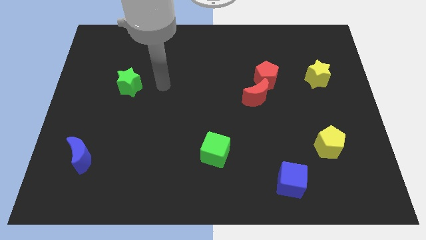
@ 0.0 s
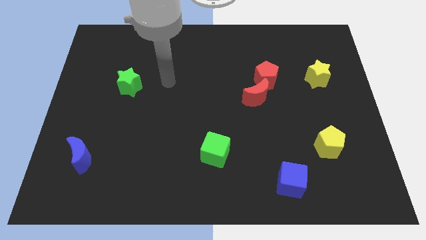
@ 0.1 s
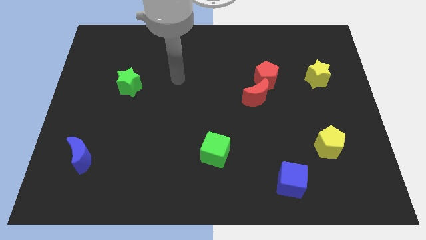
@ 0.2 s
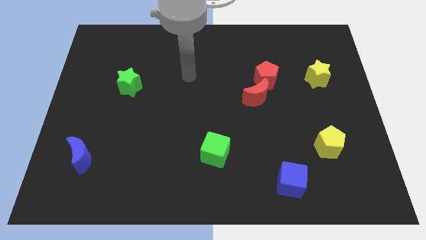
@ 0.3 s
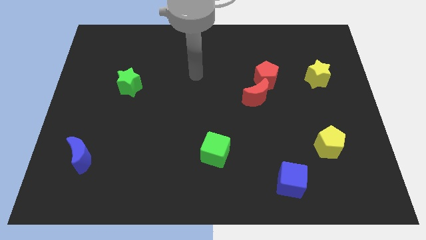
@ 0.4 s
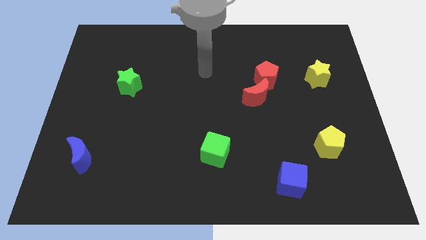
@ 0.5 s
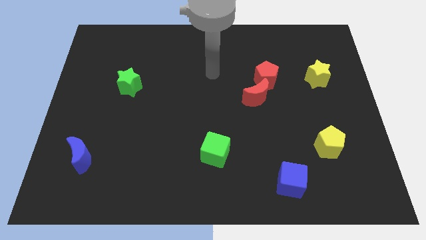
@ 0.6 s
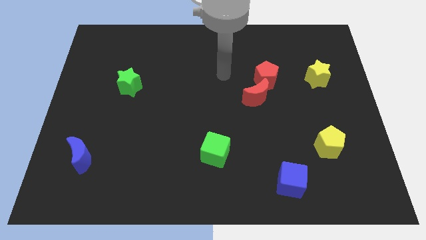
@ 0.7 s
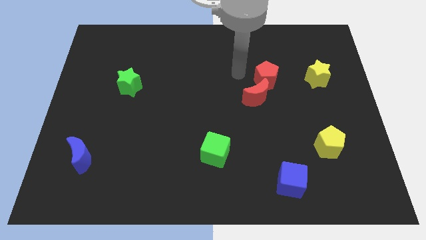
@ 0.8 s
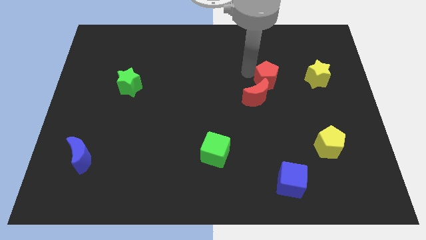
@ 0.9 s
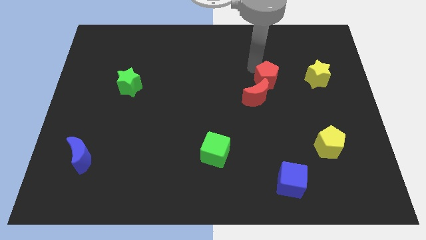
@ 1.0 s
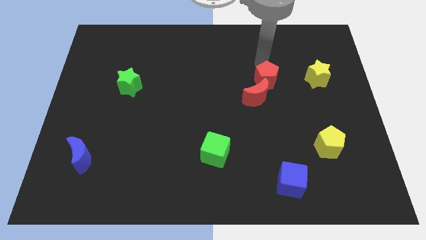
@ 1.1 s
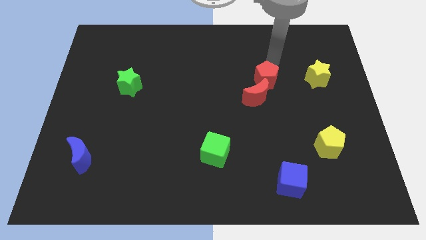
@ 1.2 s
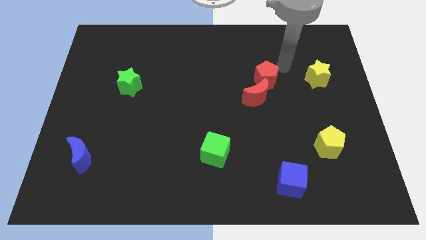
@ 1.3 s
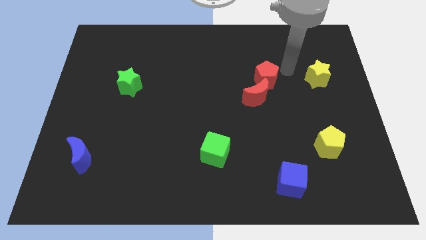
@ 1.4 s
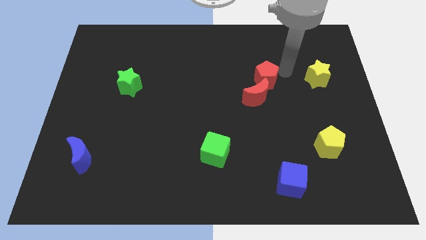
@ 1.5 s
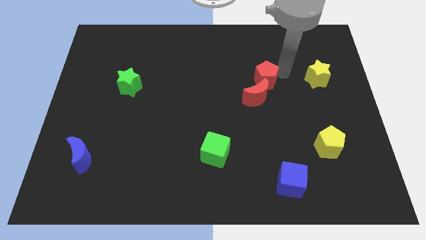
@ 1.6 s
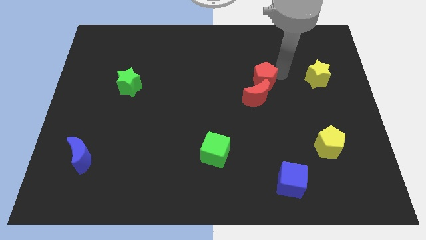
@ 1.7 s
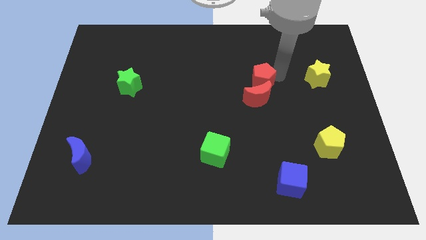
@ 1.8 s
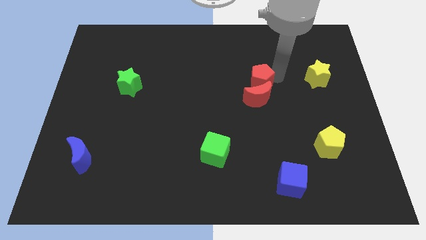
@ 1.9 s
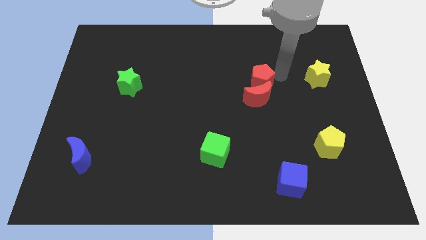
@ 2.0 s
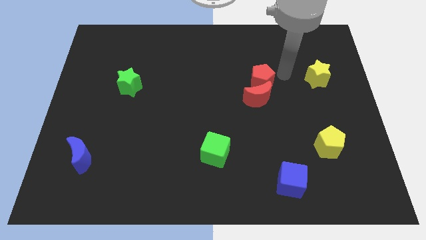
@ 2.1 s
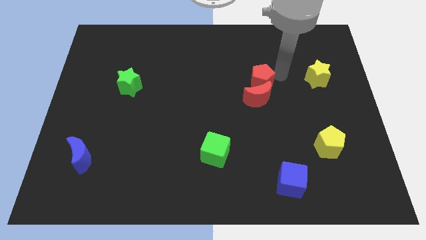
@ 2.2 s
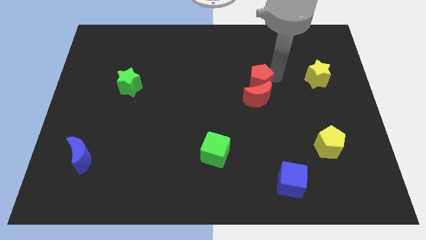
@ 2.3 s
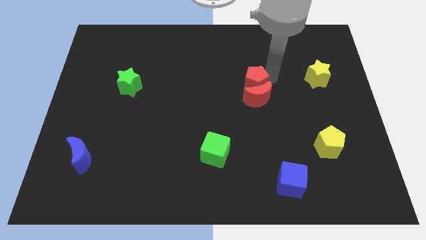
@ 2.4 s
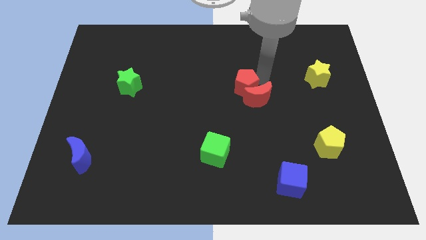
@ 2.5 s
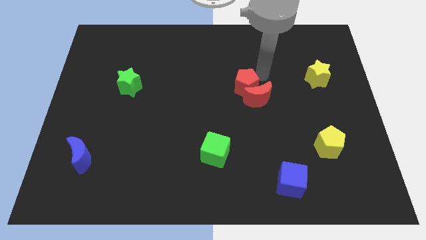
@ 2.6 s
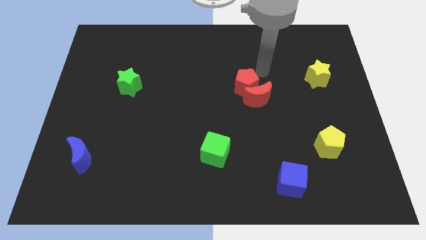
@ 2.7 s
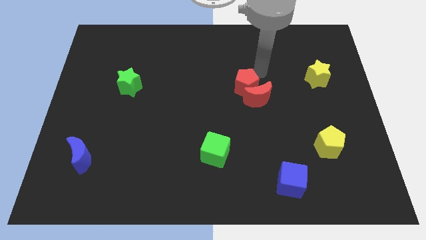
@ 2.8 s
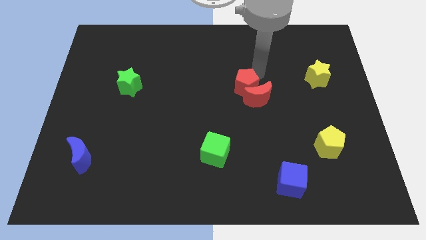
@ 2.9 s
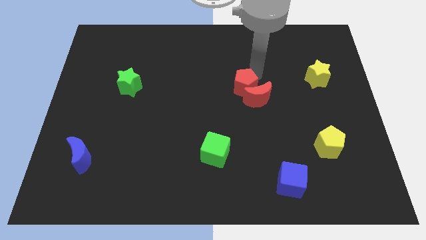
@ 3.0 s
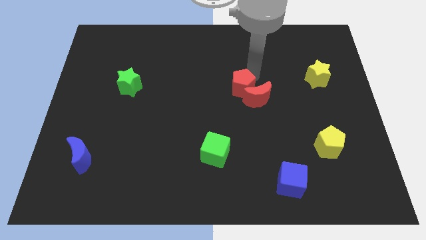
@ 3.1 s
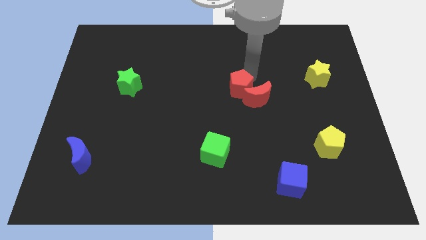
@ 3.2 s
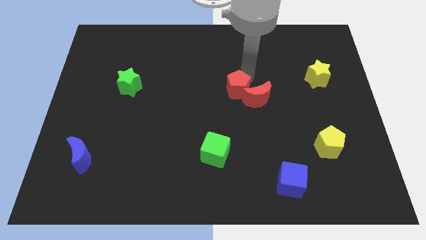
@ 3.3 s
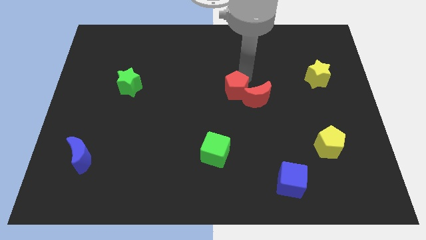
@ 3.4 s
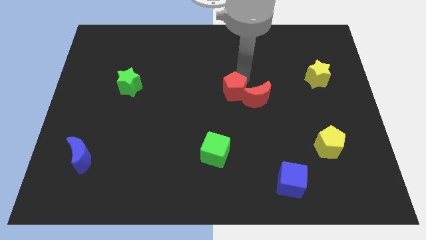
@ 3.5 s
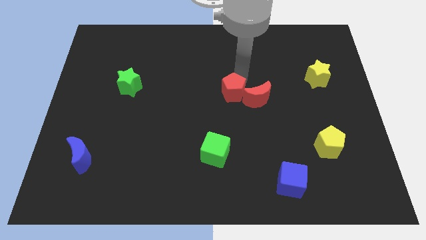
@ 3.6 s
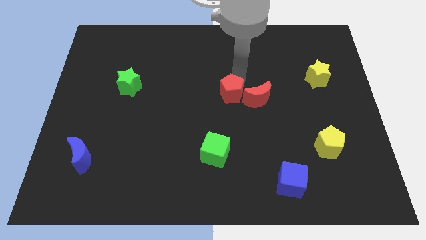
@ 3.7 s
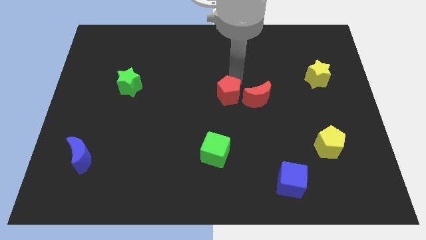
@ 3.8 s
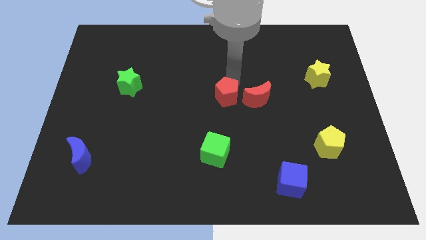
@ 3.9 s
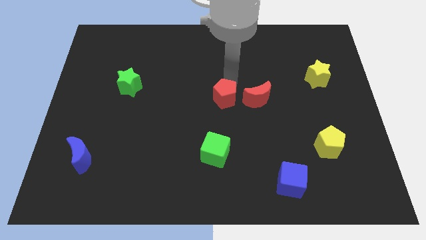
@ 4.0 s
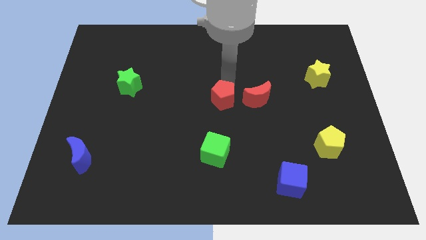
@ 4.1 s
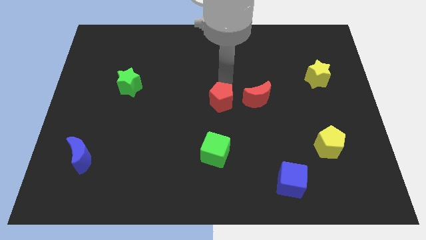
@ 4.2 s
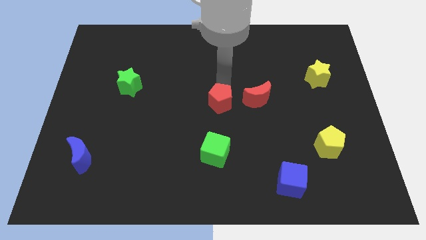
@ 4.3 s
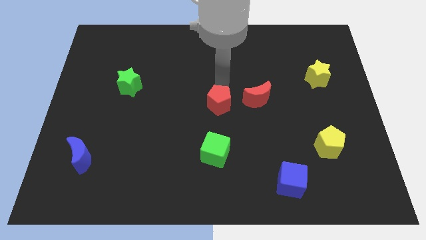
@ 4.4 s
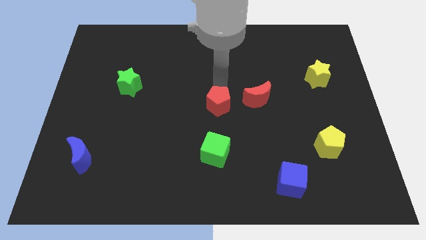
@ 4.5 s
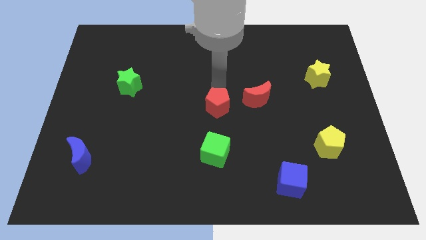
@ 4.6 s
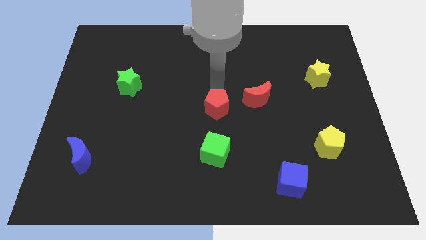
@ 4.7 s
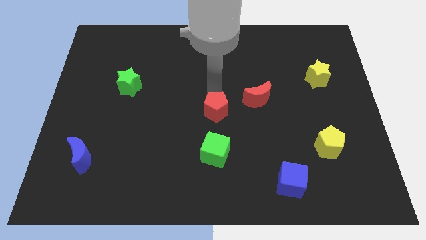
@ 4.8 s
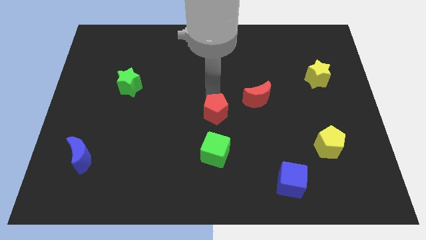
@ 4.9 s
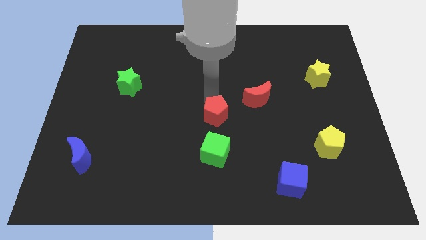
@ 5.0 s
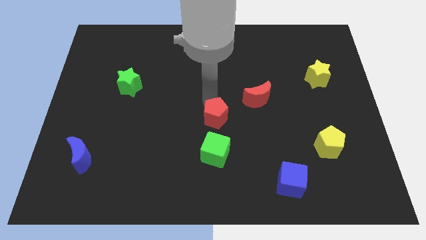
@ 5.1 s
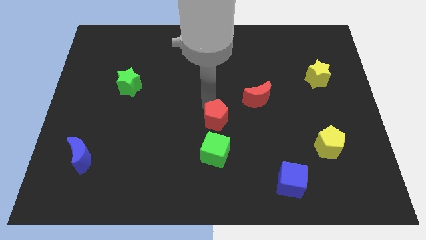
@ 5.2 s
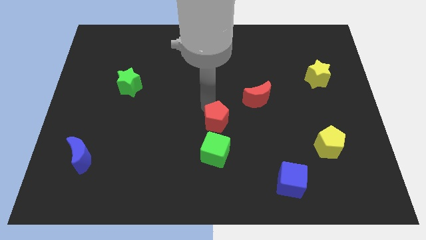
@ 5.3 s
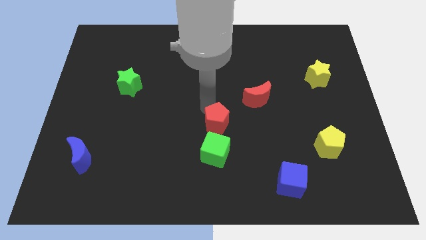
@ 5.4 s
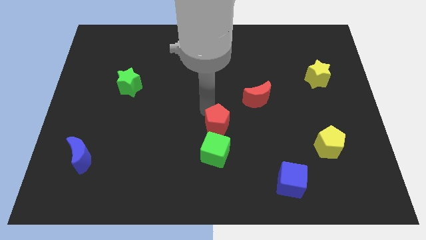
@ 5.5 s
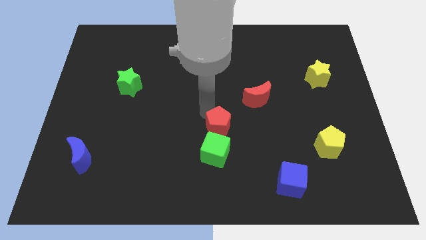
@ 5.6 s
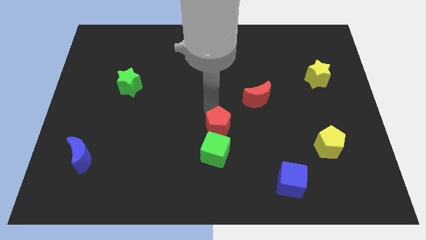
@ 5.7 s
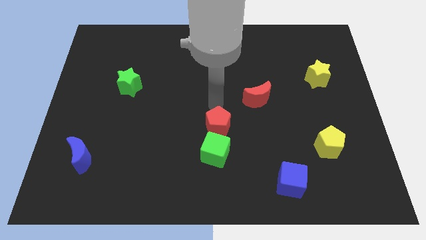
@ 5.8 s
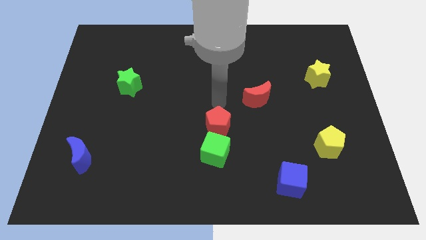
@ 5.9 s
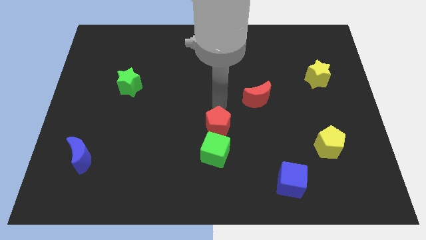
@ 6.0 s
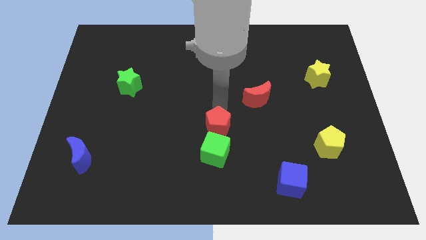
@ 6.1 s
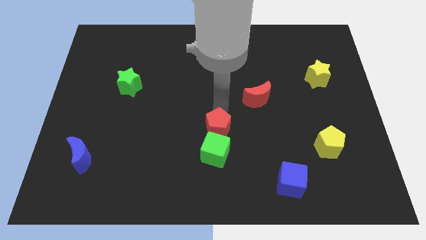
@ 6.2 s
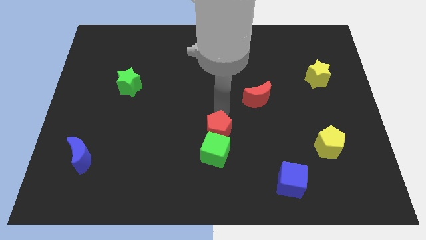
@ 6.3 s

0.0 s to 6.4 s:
put the red pentagon next to the green cube

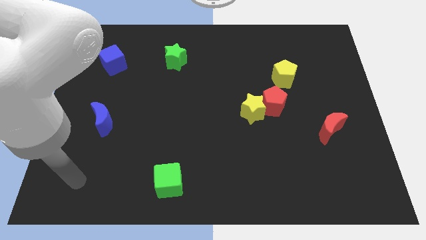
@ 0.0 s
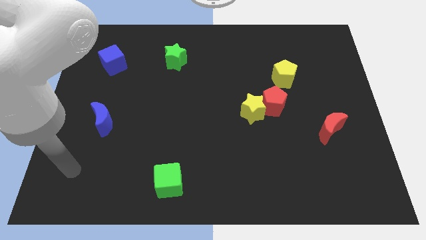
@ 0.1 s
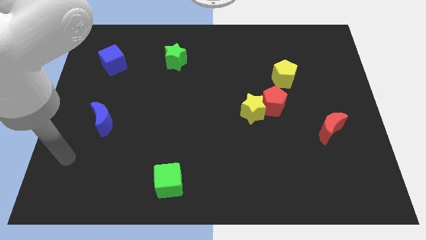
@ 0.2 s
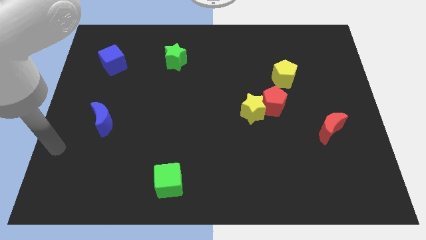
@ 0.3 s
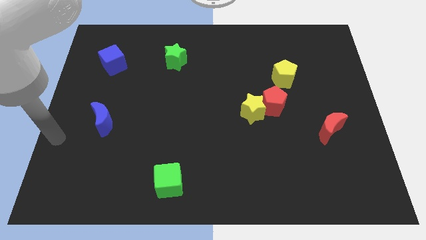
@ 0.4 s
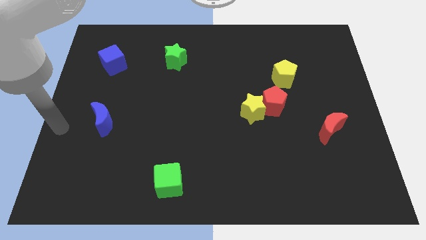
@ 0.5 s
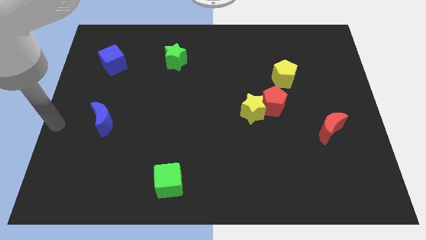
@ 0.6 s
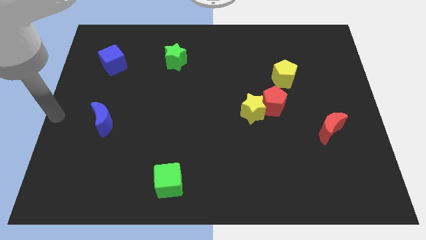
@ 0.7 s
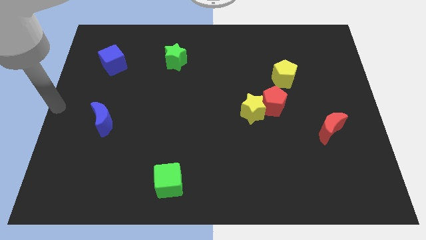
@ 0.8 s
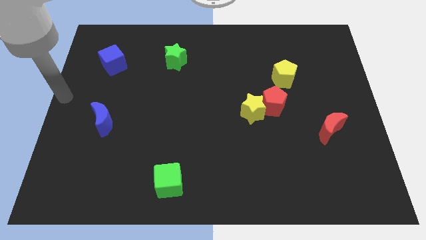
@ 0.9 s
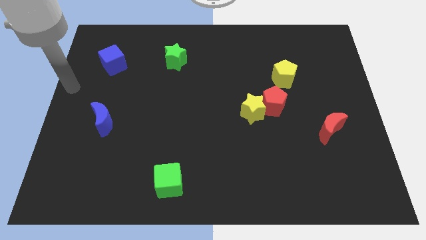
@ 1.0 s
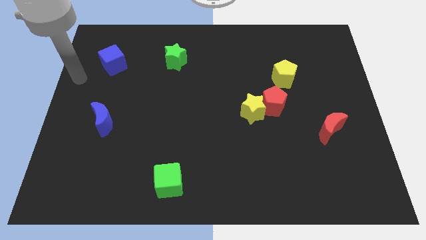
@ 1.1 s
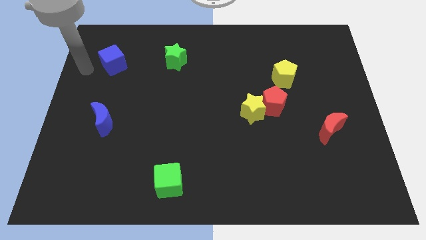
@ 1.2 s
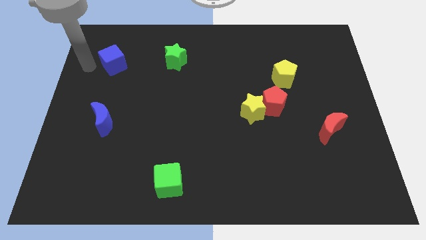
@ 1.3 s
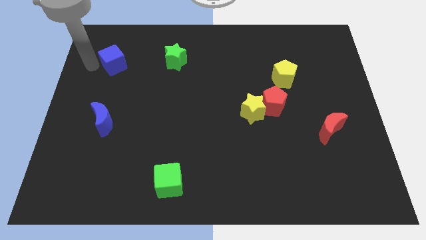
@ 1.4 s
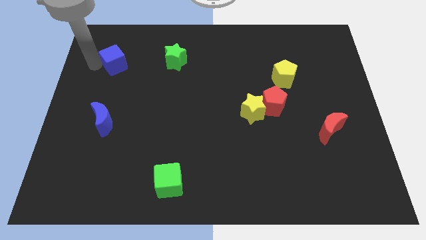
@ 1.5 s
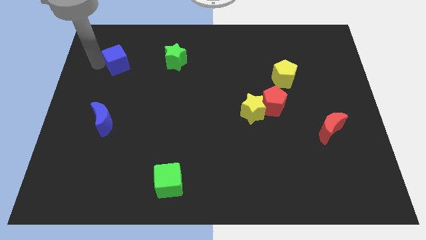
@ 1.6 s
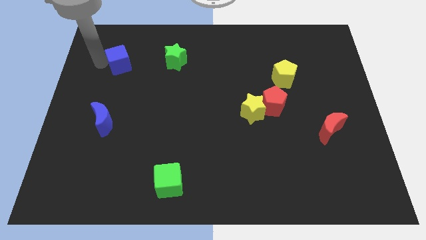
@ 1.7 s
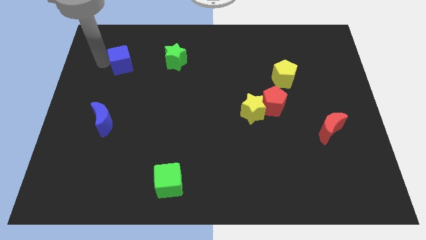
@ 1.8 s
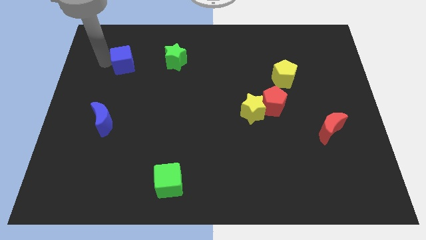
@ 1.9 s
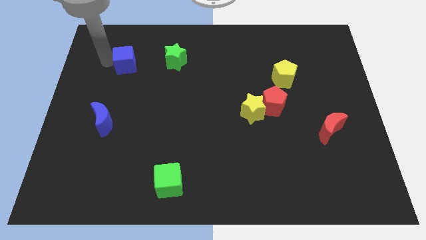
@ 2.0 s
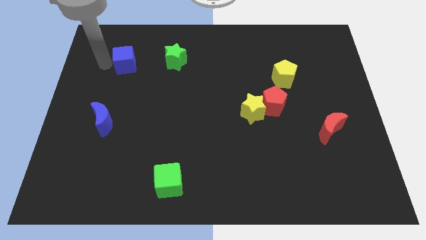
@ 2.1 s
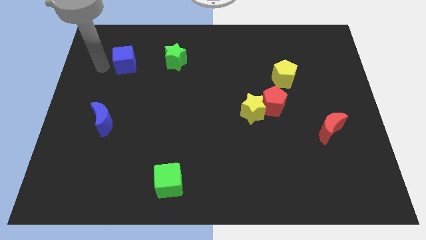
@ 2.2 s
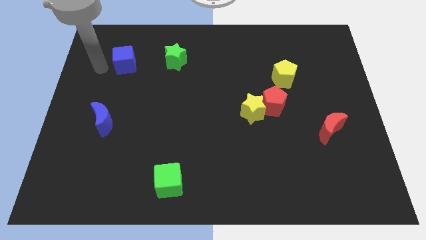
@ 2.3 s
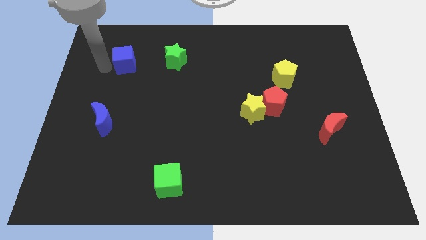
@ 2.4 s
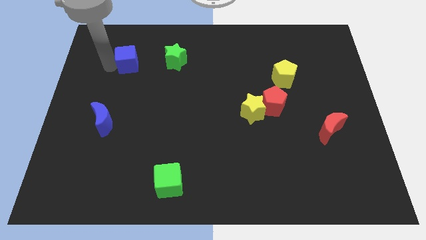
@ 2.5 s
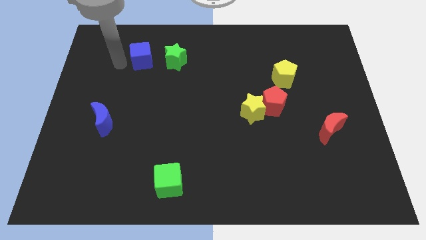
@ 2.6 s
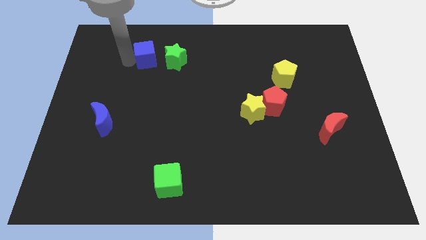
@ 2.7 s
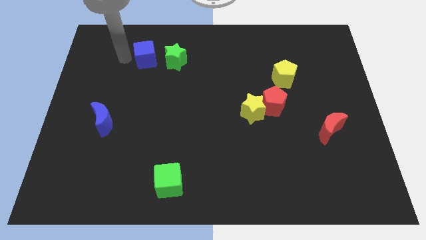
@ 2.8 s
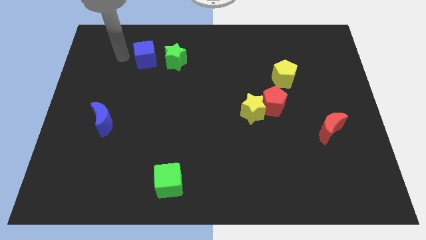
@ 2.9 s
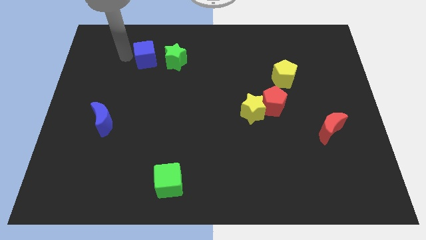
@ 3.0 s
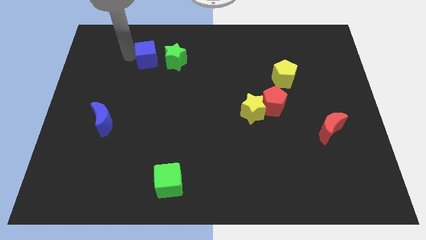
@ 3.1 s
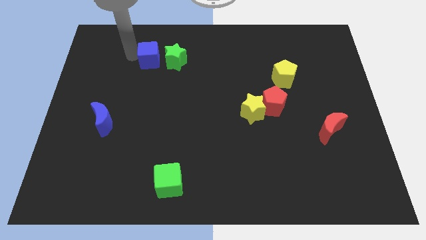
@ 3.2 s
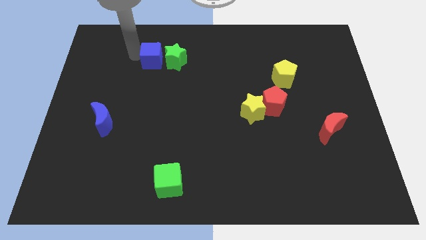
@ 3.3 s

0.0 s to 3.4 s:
slide the blue cube to the green star
